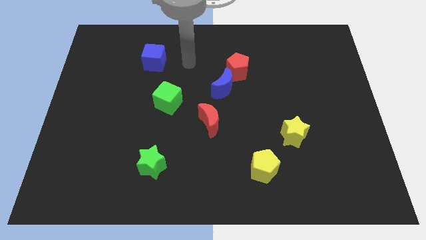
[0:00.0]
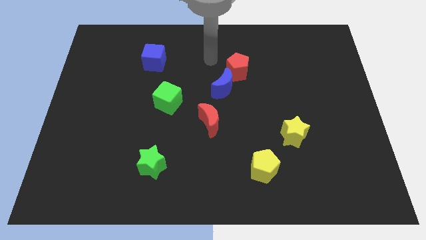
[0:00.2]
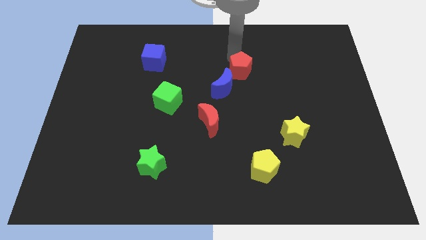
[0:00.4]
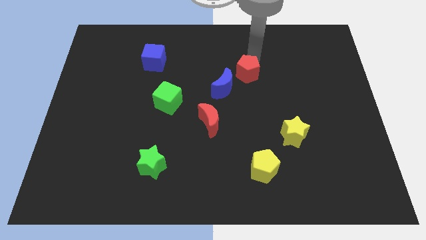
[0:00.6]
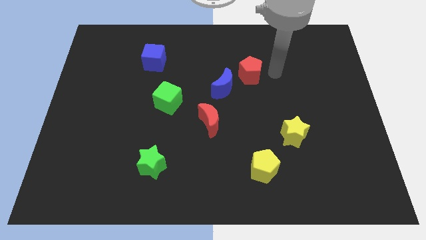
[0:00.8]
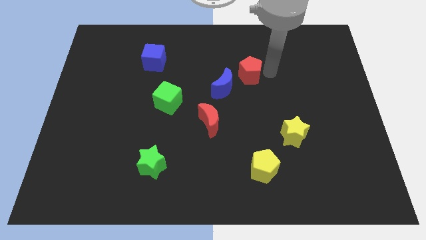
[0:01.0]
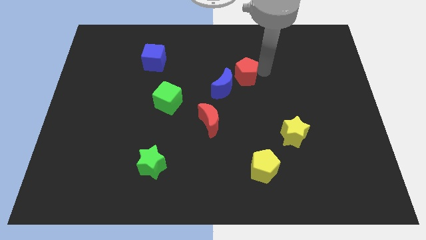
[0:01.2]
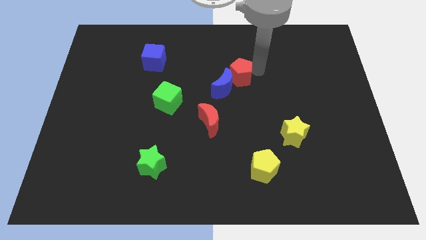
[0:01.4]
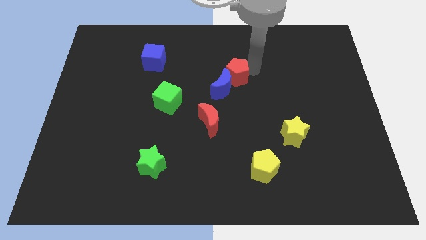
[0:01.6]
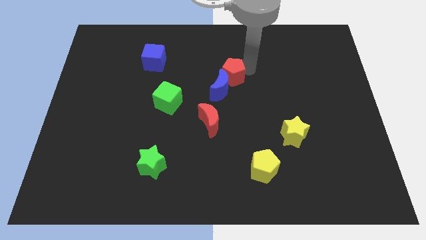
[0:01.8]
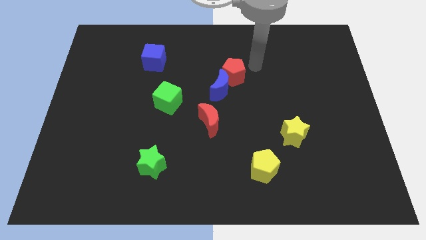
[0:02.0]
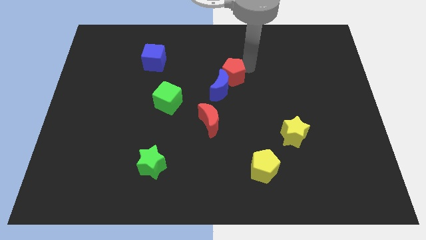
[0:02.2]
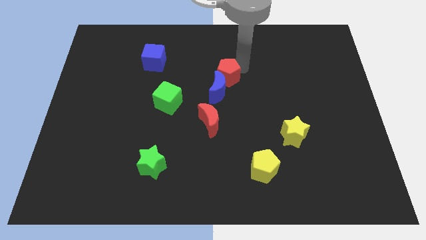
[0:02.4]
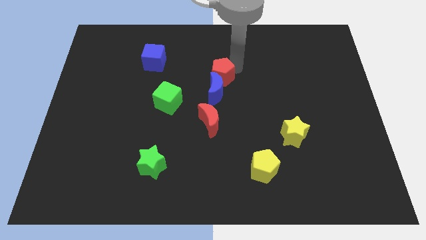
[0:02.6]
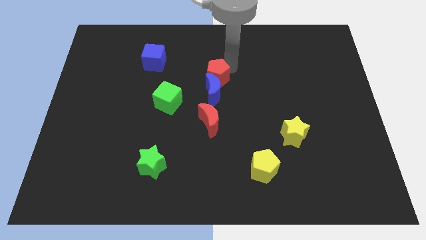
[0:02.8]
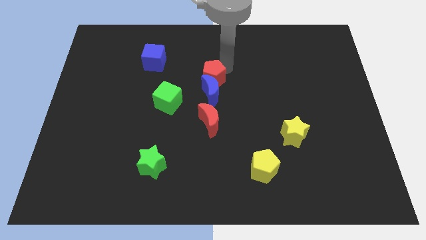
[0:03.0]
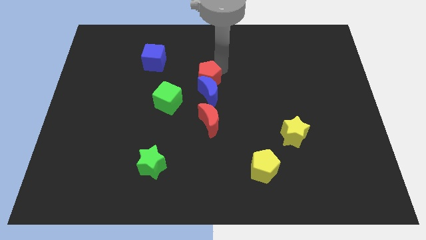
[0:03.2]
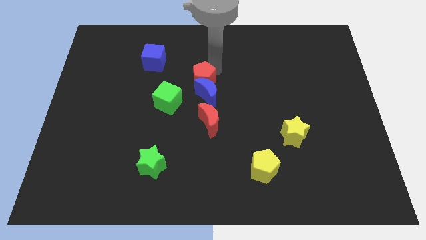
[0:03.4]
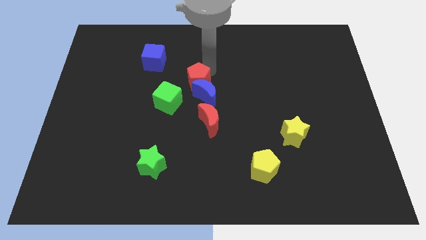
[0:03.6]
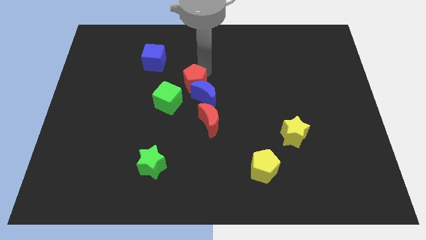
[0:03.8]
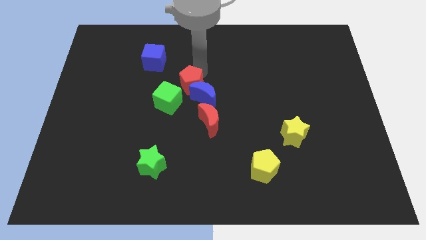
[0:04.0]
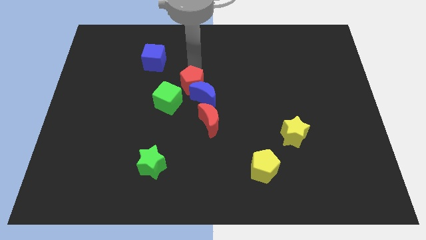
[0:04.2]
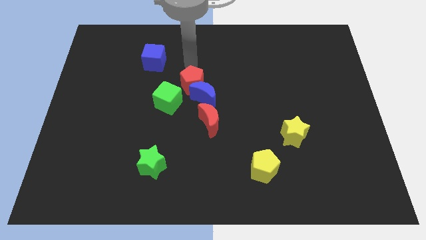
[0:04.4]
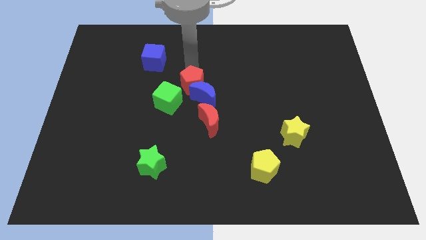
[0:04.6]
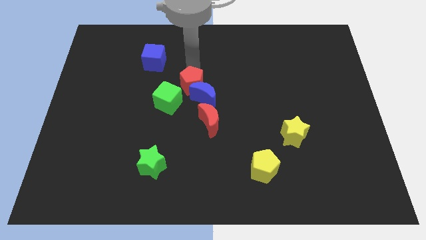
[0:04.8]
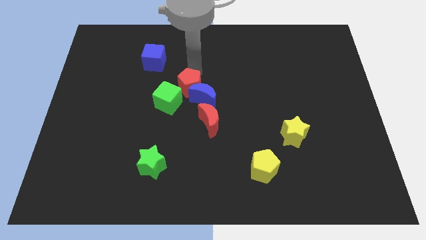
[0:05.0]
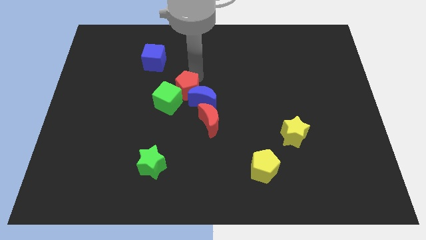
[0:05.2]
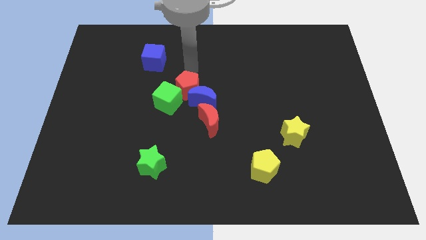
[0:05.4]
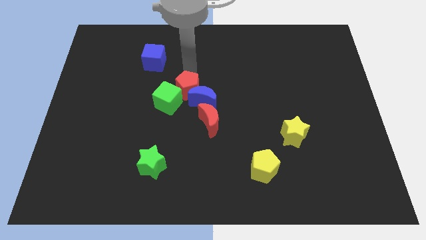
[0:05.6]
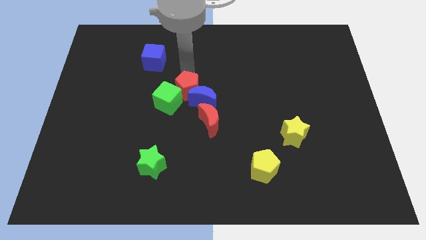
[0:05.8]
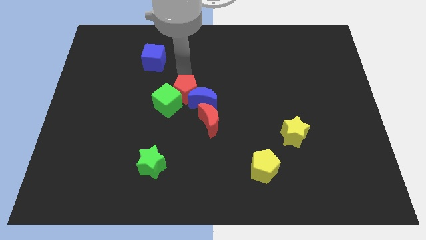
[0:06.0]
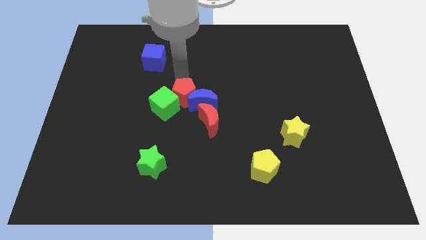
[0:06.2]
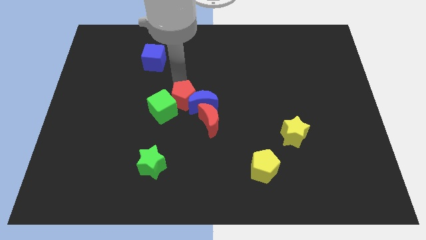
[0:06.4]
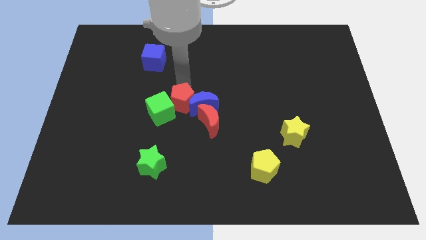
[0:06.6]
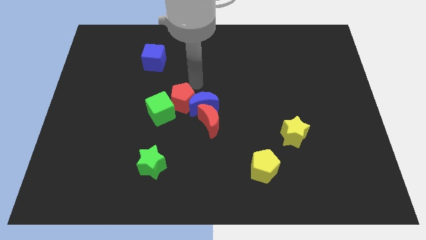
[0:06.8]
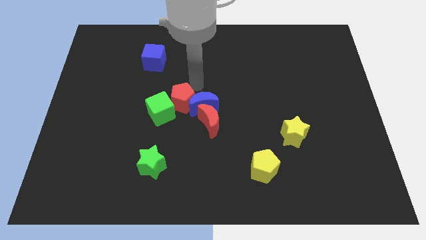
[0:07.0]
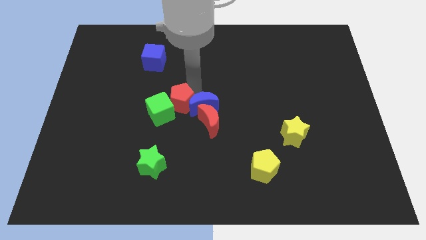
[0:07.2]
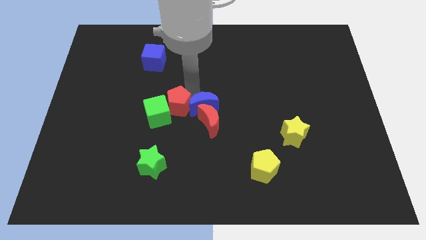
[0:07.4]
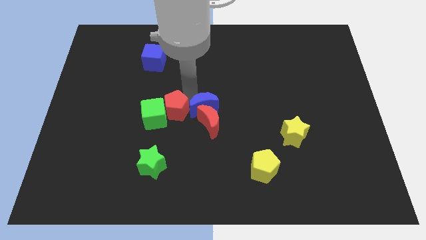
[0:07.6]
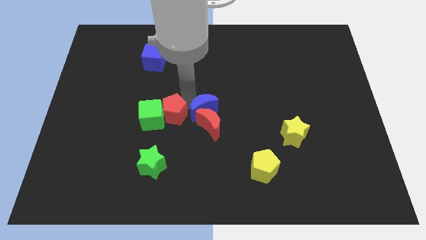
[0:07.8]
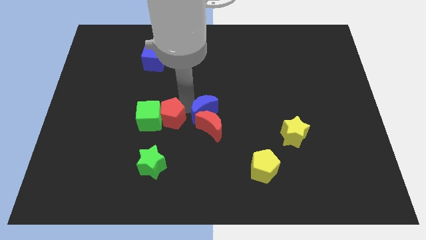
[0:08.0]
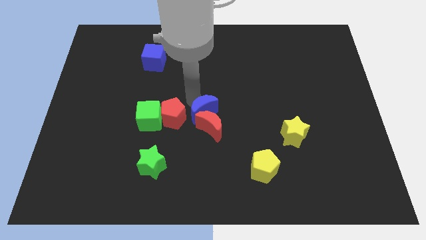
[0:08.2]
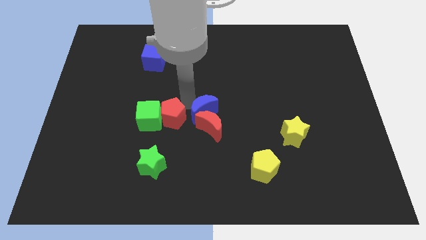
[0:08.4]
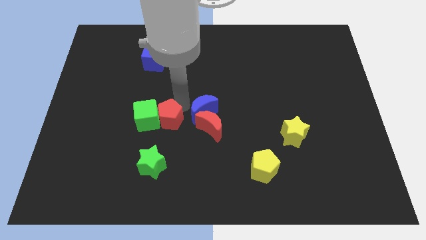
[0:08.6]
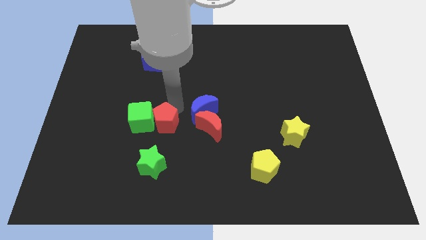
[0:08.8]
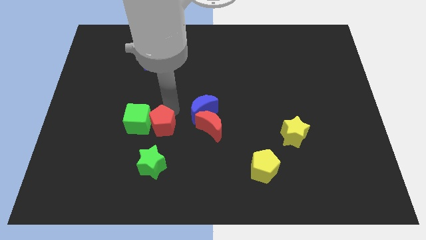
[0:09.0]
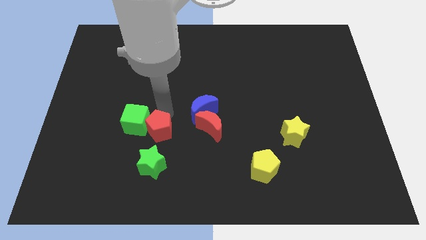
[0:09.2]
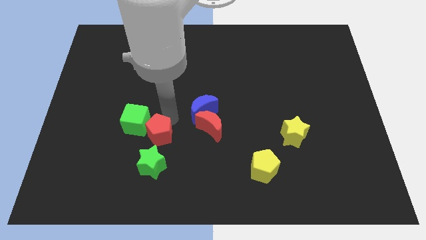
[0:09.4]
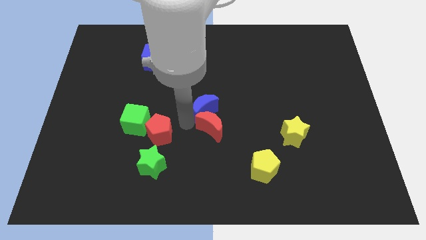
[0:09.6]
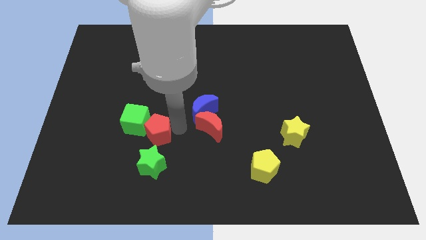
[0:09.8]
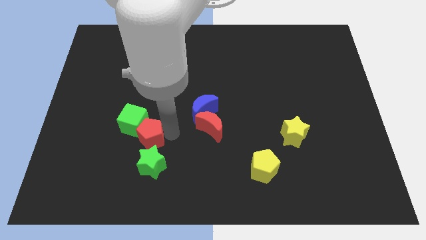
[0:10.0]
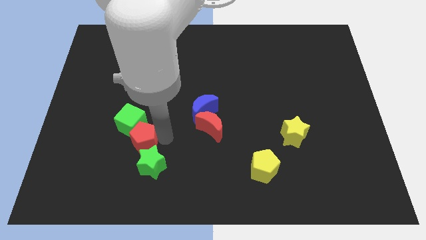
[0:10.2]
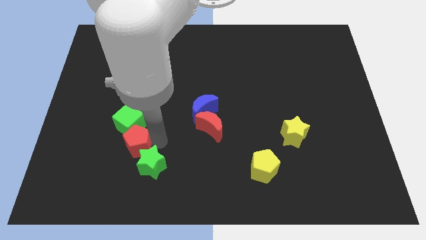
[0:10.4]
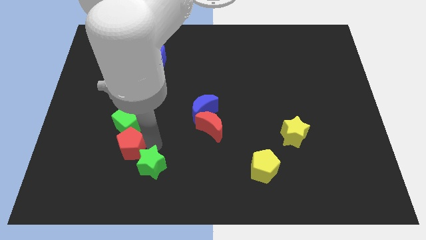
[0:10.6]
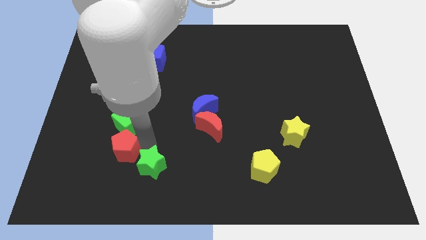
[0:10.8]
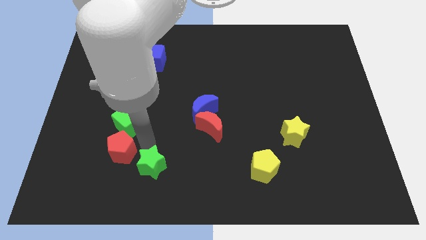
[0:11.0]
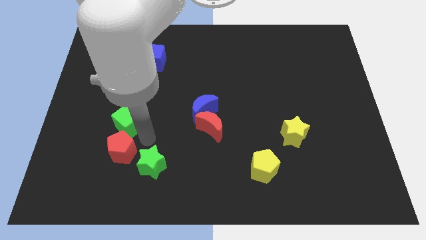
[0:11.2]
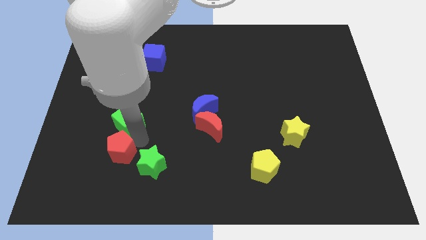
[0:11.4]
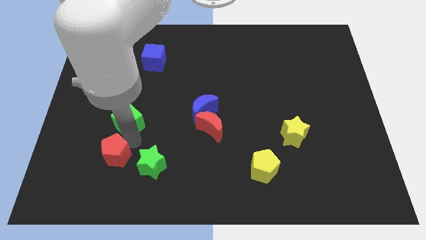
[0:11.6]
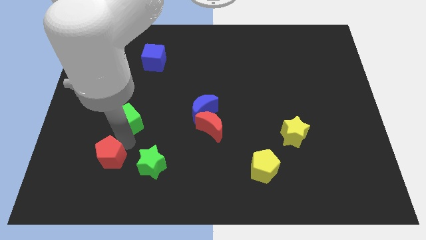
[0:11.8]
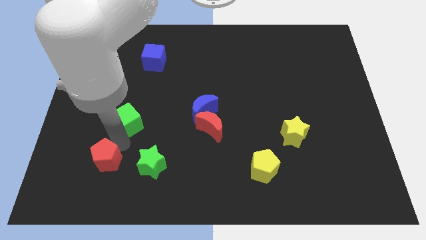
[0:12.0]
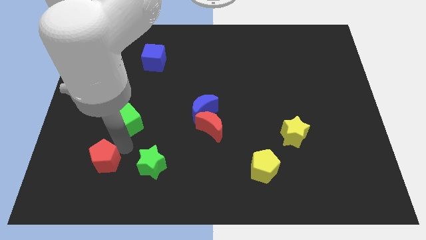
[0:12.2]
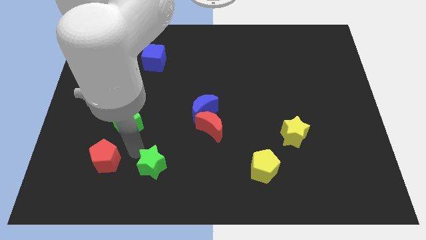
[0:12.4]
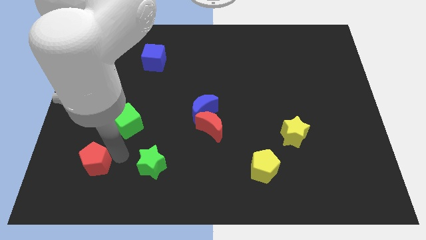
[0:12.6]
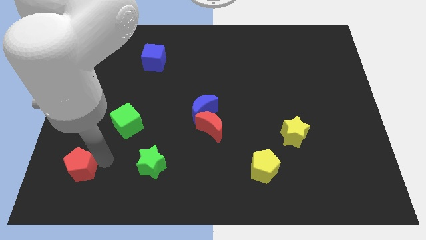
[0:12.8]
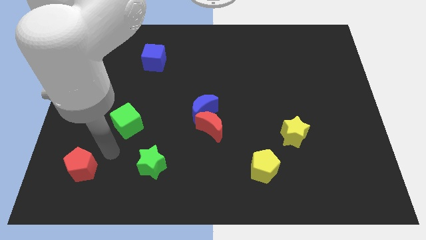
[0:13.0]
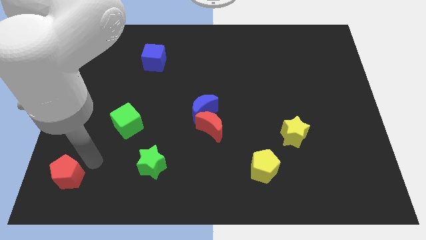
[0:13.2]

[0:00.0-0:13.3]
slide the red pentagon to the lower left corner

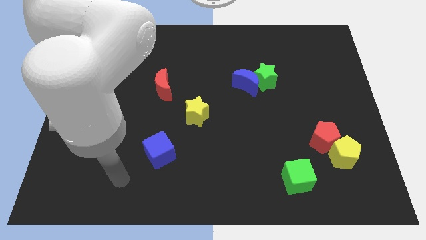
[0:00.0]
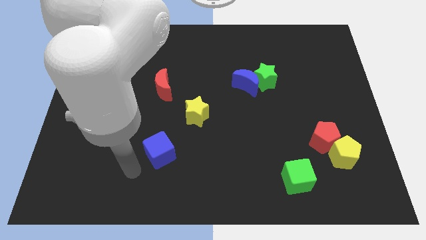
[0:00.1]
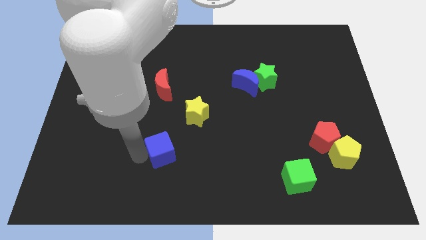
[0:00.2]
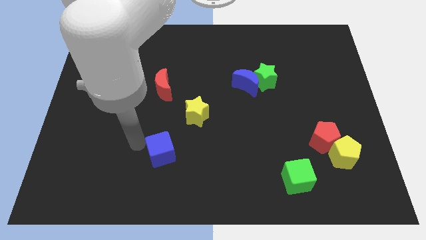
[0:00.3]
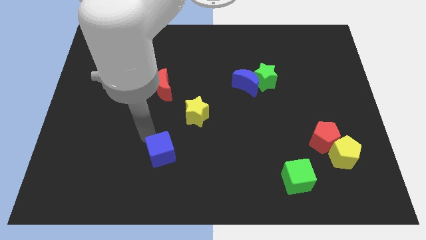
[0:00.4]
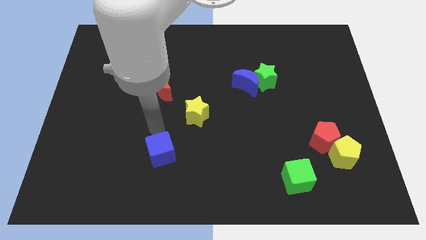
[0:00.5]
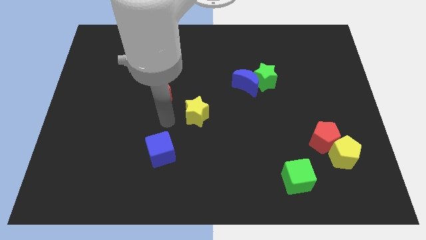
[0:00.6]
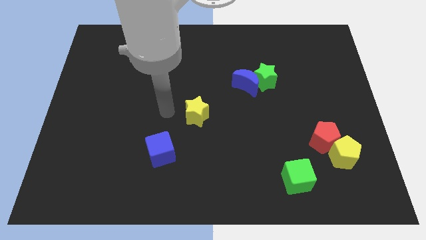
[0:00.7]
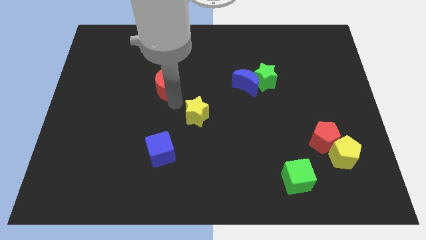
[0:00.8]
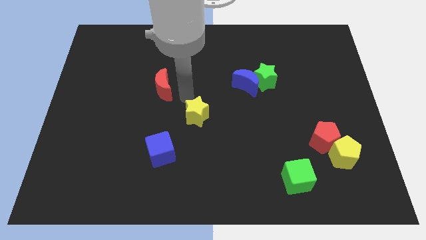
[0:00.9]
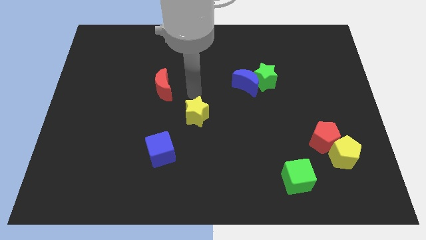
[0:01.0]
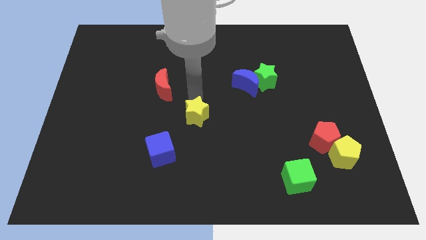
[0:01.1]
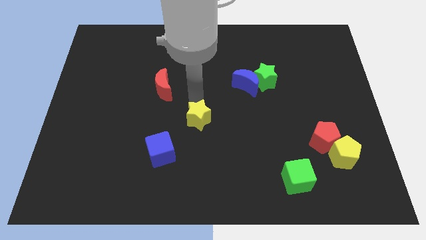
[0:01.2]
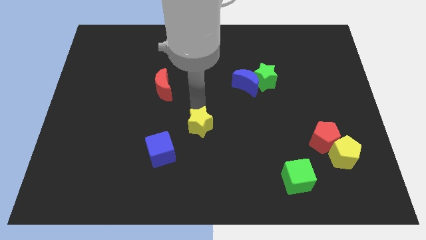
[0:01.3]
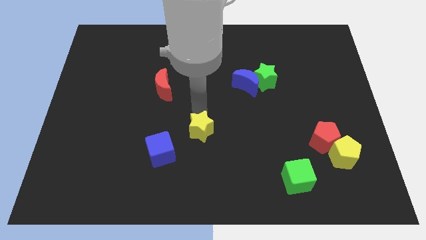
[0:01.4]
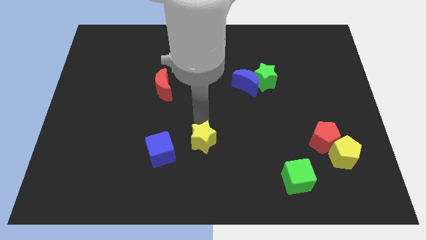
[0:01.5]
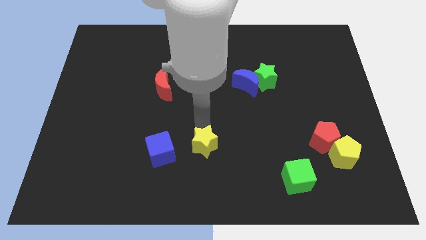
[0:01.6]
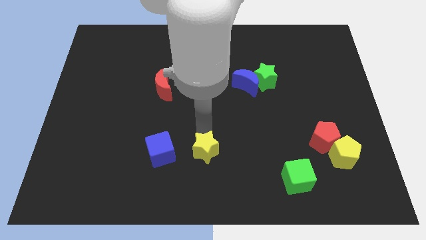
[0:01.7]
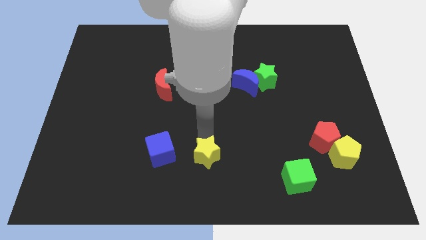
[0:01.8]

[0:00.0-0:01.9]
put the yellow star to the bottom
